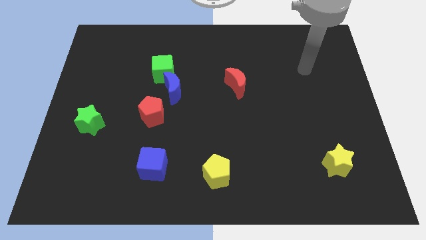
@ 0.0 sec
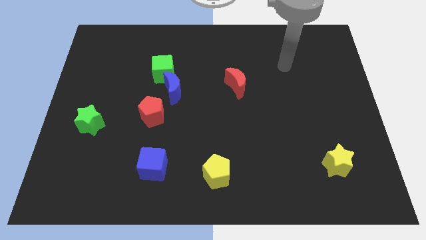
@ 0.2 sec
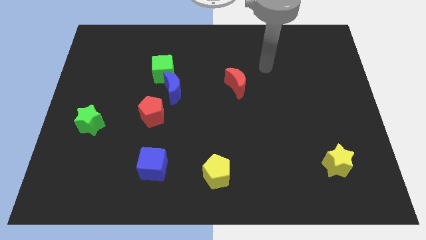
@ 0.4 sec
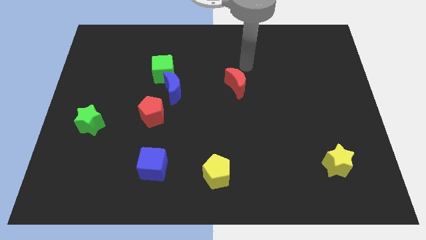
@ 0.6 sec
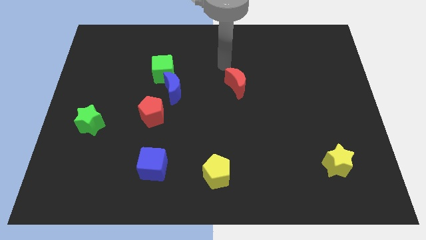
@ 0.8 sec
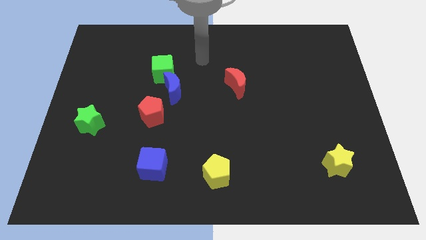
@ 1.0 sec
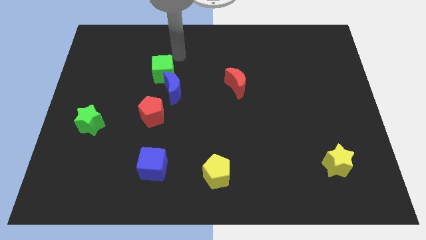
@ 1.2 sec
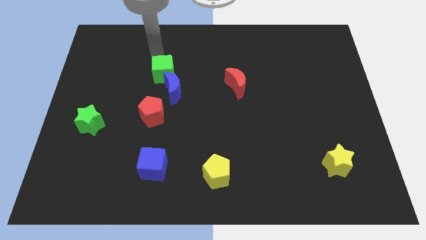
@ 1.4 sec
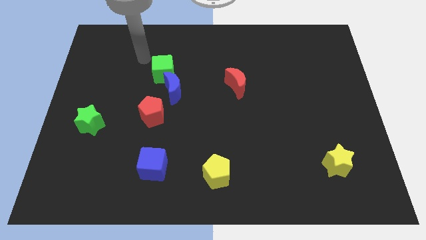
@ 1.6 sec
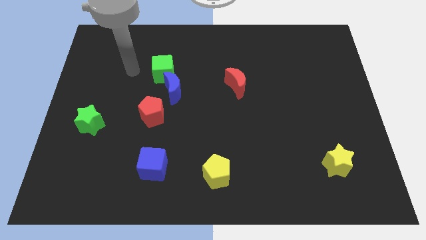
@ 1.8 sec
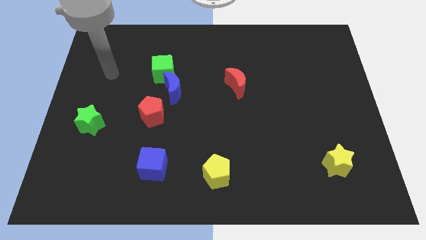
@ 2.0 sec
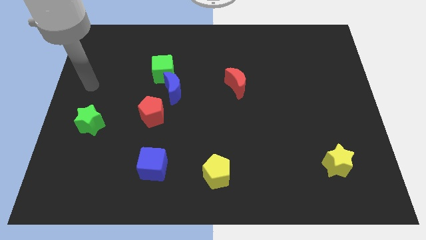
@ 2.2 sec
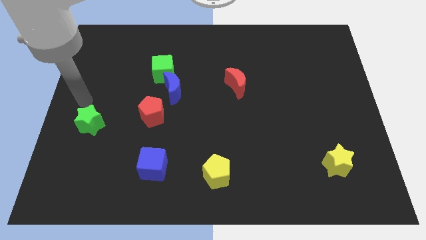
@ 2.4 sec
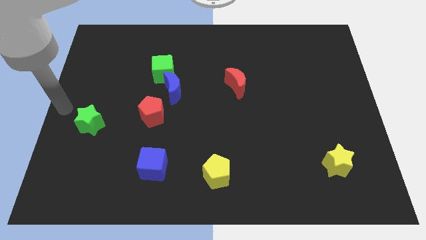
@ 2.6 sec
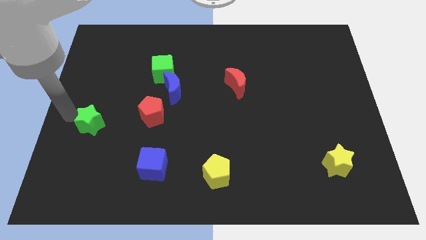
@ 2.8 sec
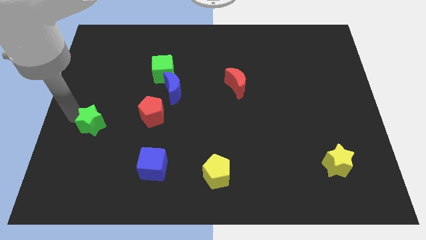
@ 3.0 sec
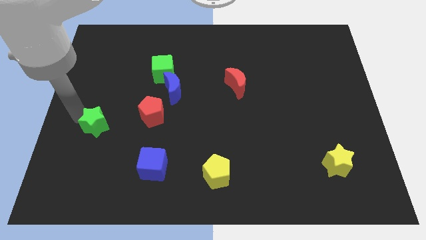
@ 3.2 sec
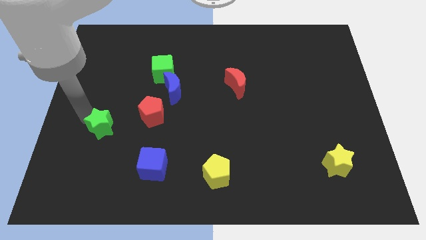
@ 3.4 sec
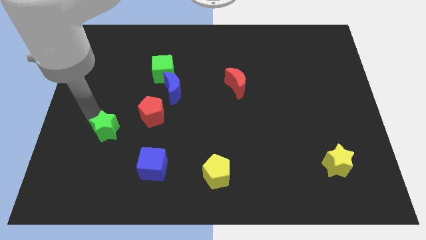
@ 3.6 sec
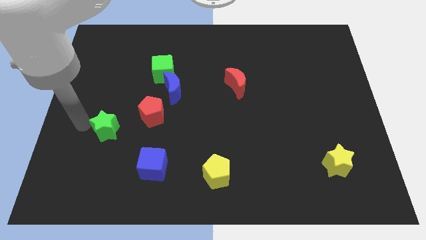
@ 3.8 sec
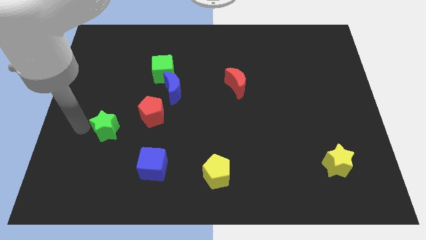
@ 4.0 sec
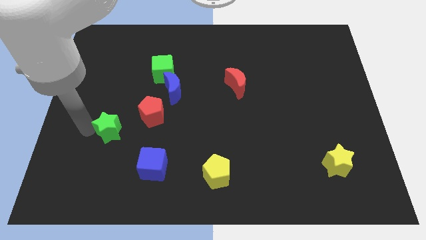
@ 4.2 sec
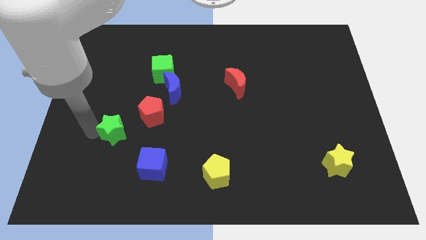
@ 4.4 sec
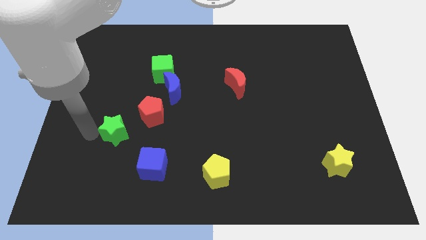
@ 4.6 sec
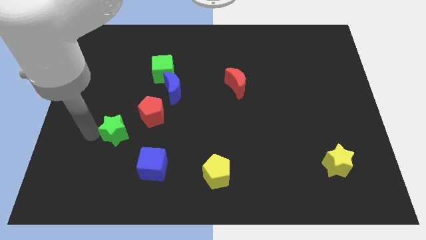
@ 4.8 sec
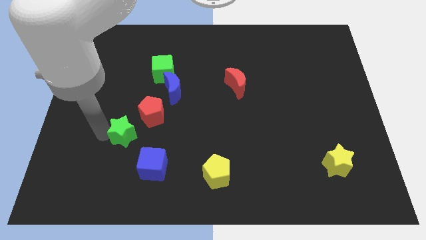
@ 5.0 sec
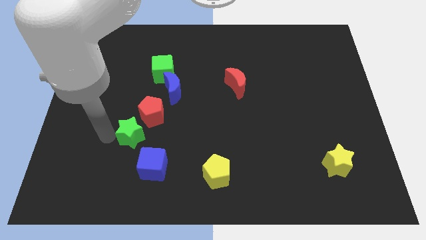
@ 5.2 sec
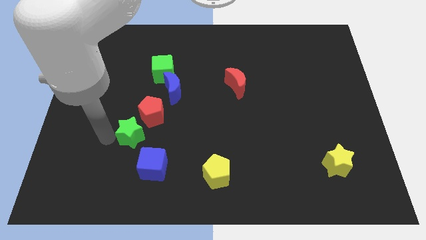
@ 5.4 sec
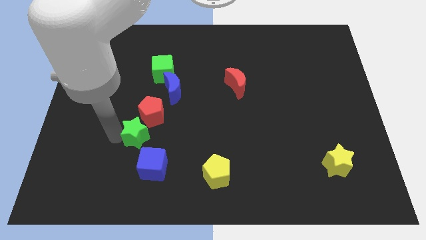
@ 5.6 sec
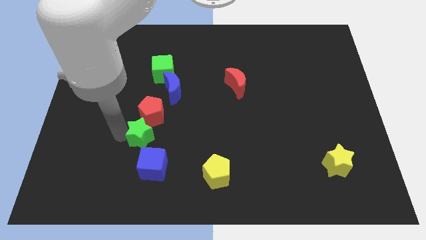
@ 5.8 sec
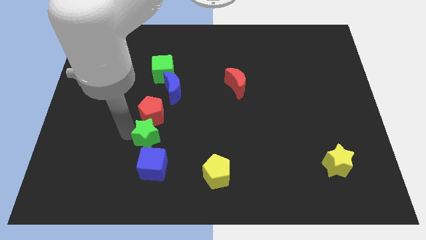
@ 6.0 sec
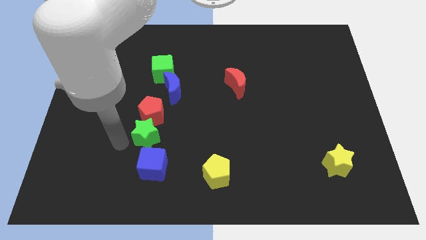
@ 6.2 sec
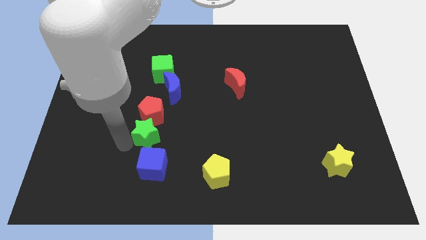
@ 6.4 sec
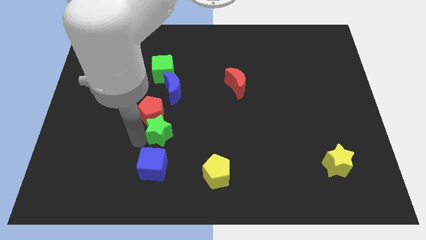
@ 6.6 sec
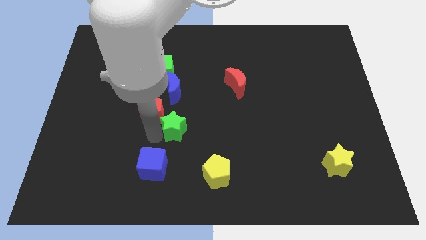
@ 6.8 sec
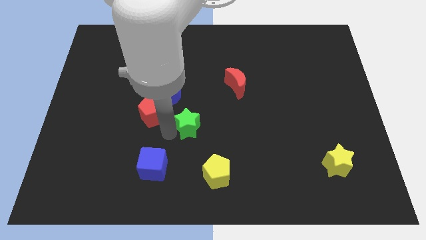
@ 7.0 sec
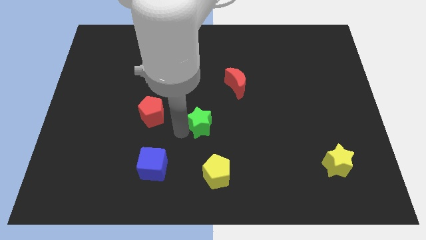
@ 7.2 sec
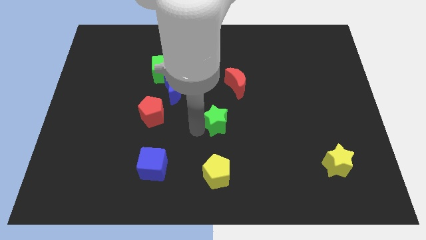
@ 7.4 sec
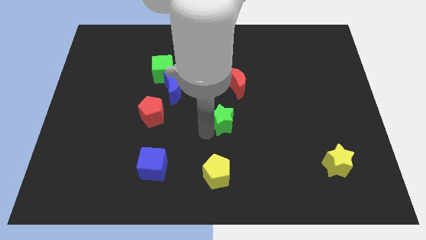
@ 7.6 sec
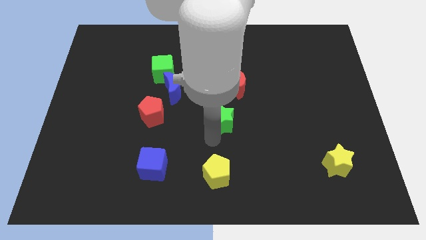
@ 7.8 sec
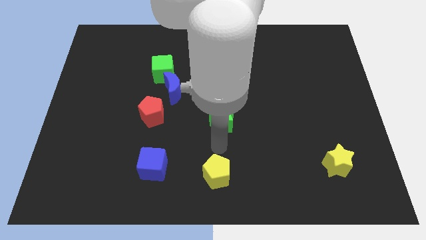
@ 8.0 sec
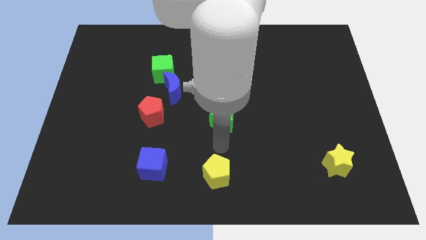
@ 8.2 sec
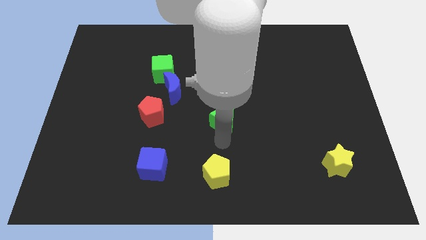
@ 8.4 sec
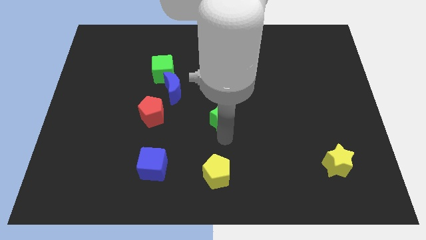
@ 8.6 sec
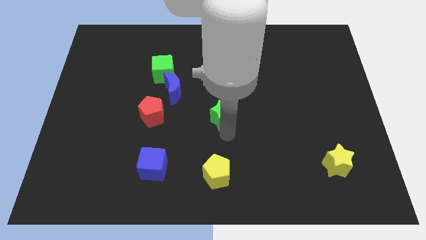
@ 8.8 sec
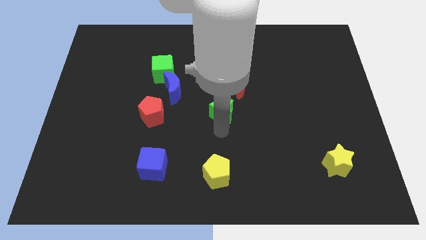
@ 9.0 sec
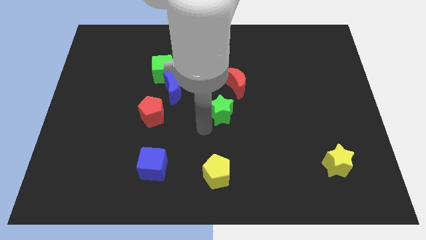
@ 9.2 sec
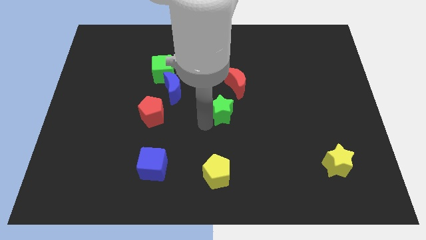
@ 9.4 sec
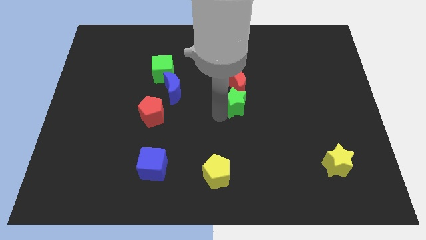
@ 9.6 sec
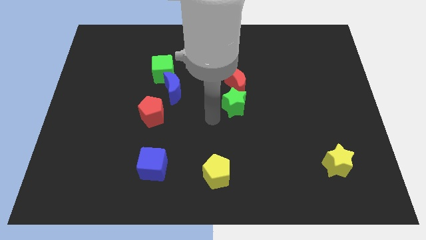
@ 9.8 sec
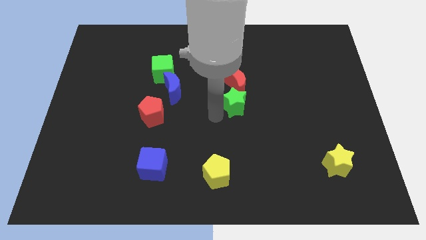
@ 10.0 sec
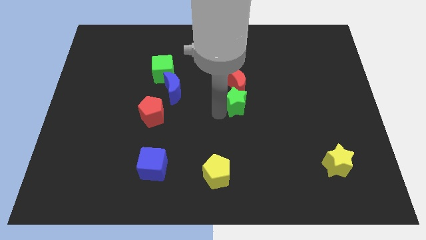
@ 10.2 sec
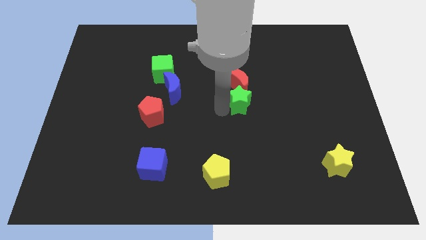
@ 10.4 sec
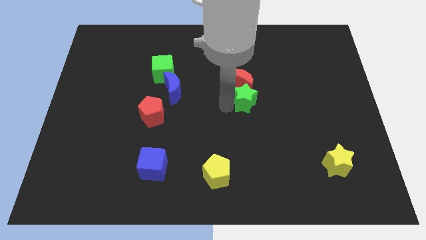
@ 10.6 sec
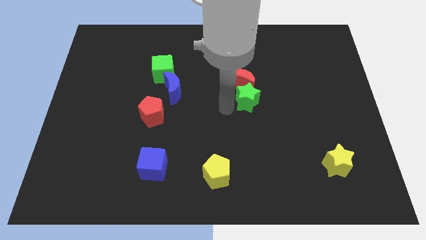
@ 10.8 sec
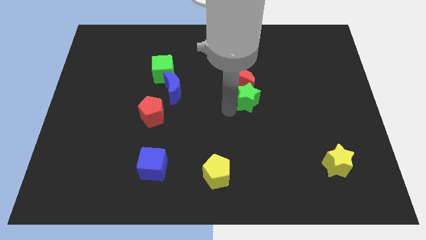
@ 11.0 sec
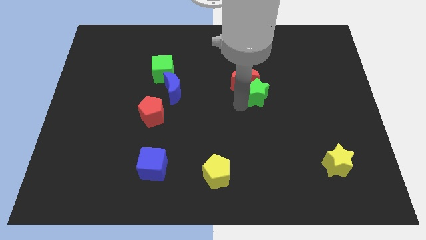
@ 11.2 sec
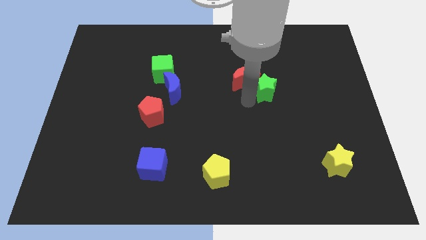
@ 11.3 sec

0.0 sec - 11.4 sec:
push the green star right of the red moon
